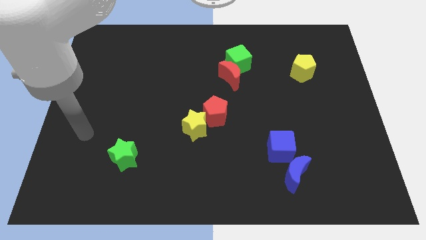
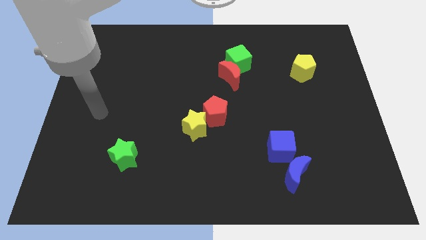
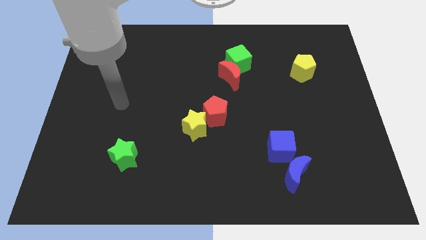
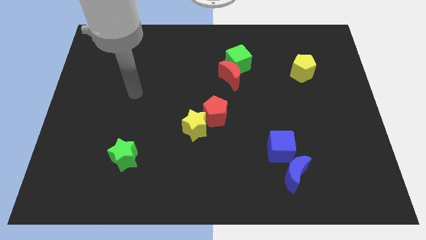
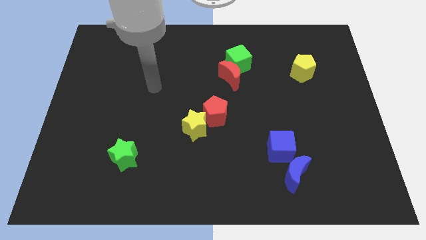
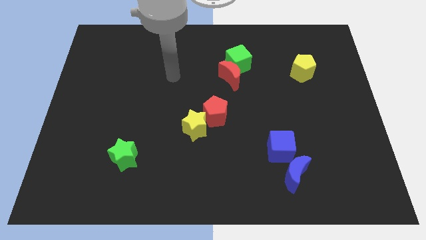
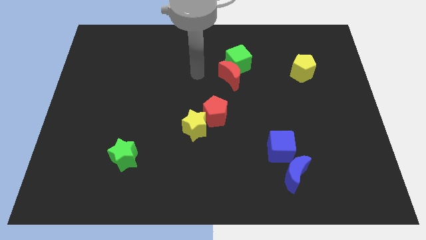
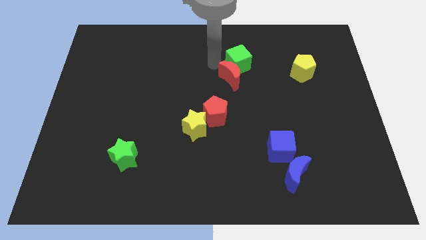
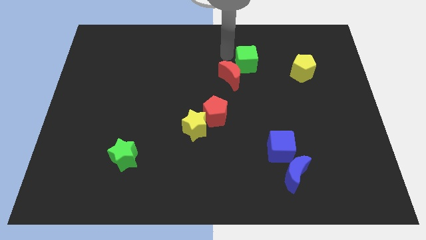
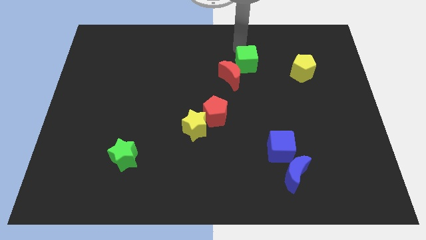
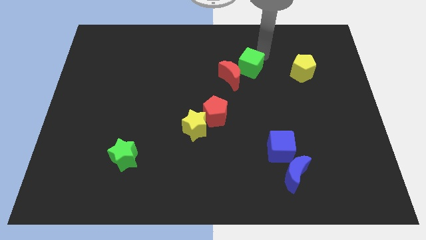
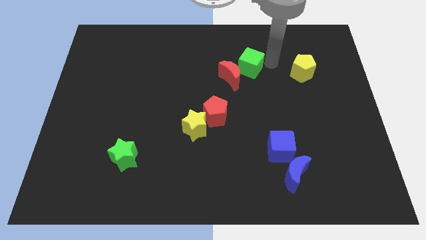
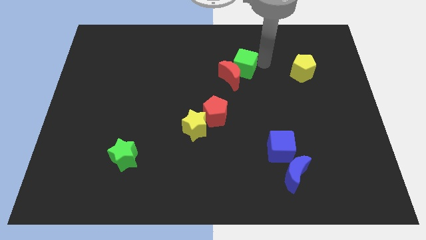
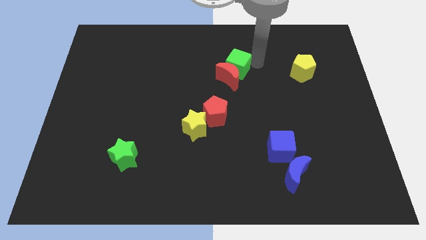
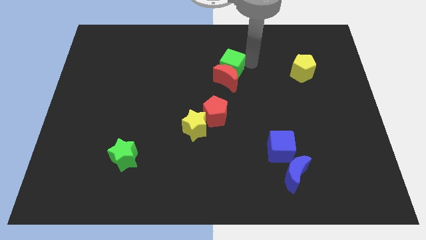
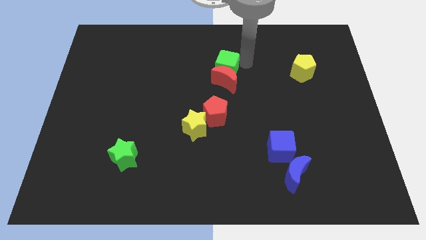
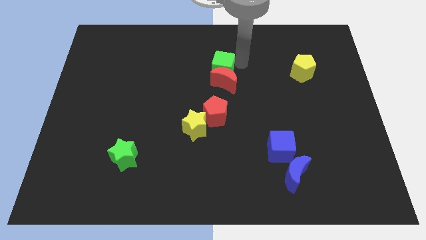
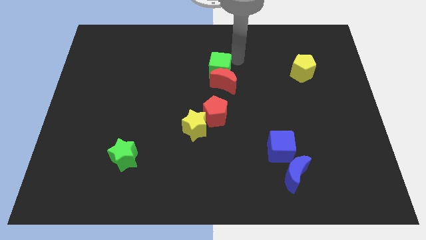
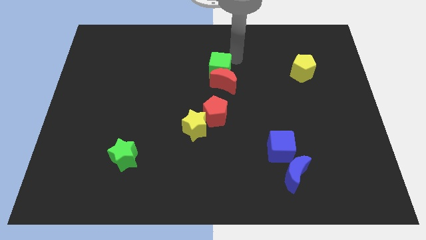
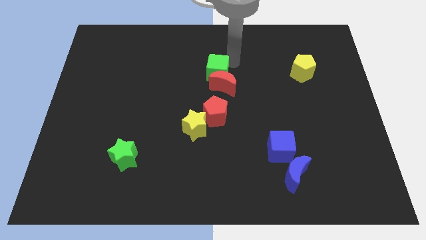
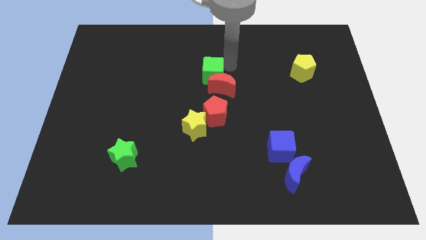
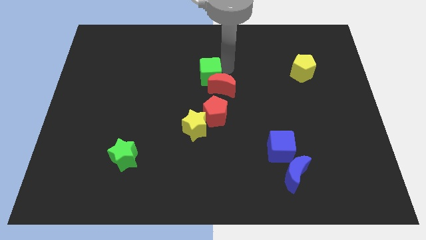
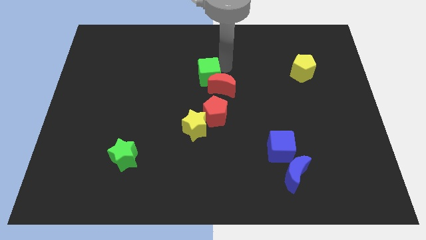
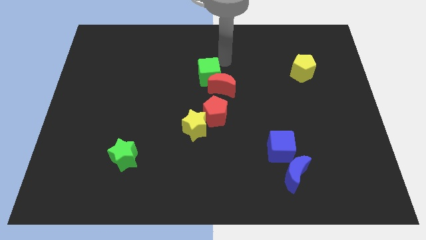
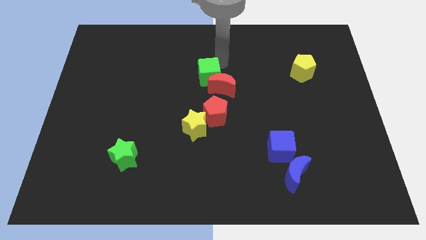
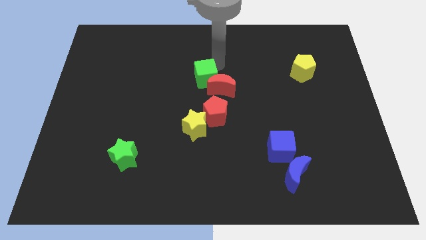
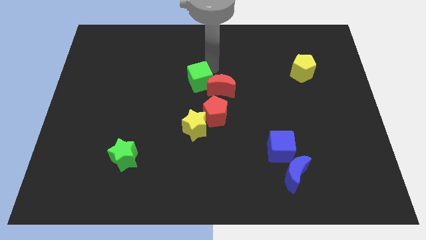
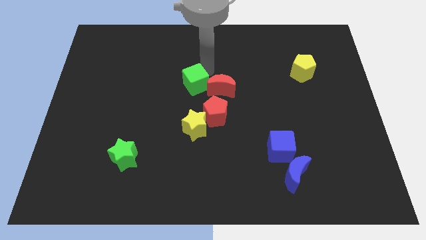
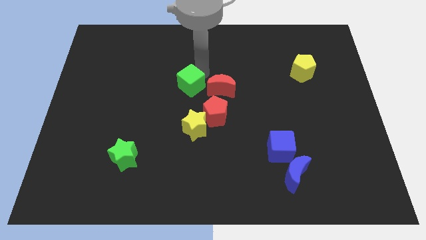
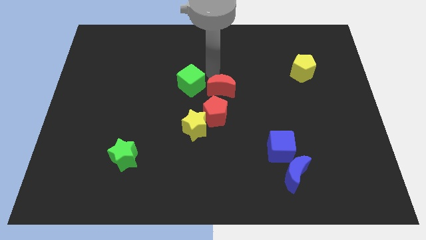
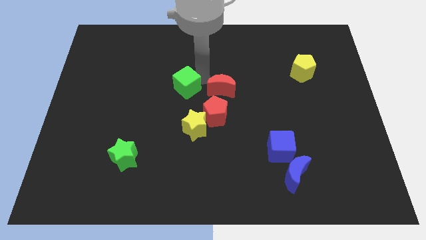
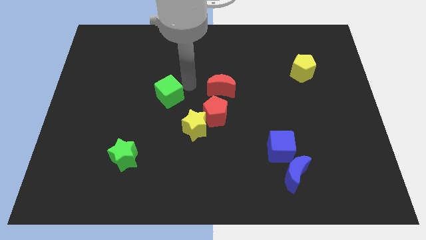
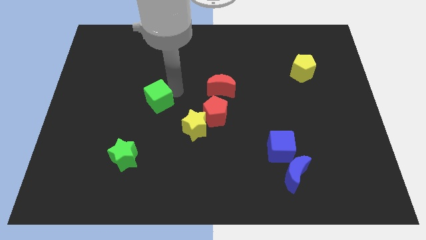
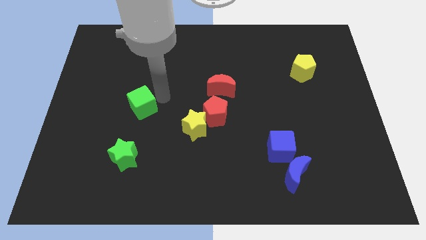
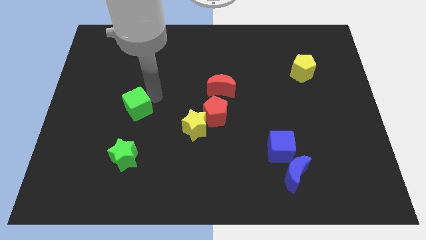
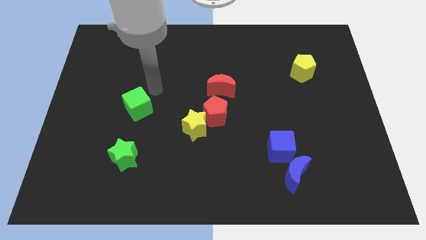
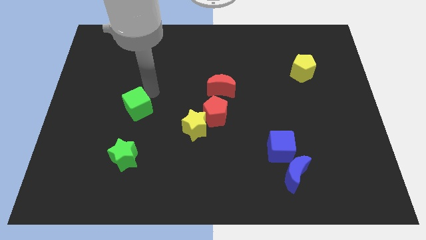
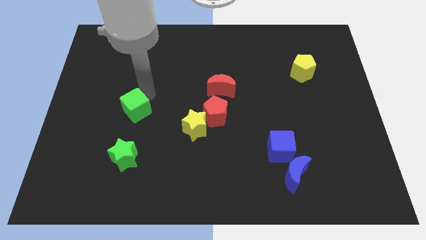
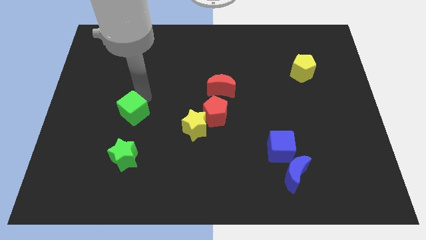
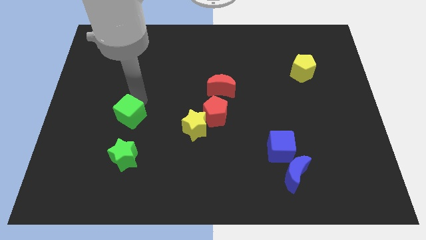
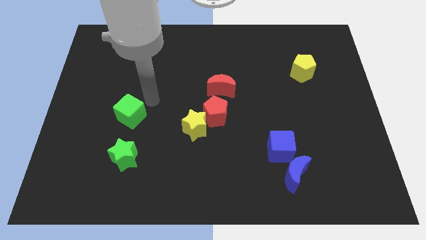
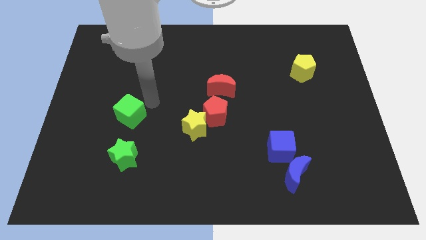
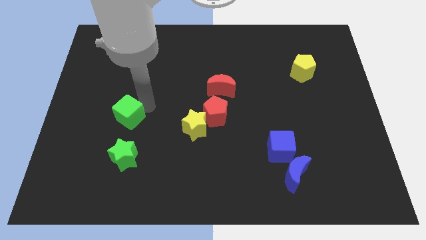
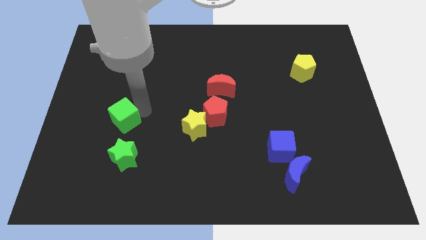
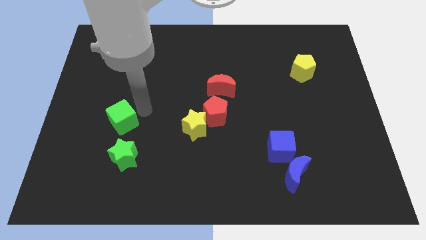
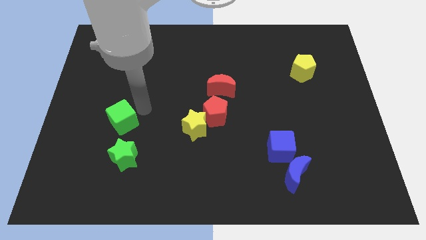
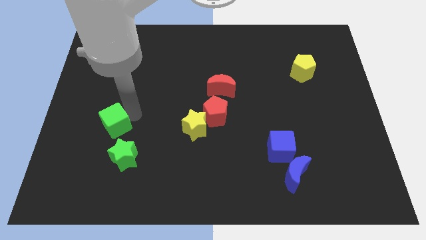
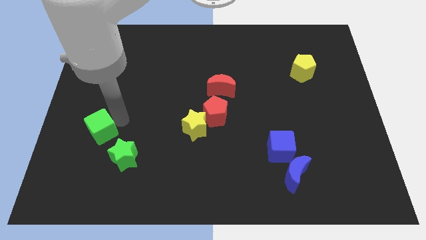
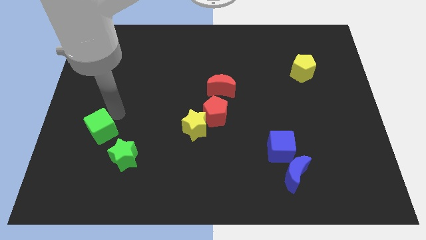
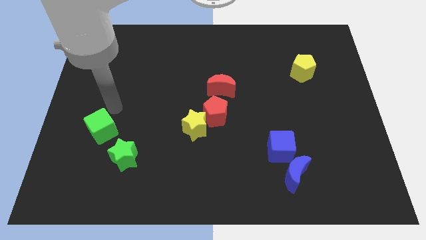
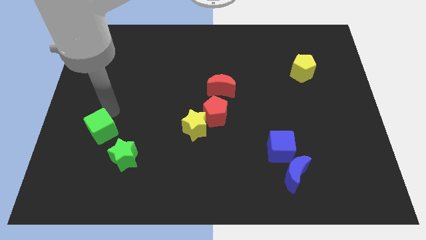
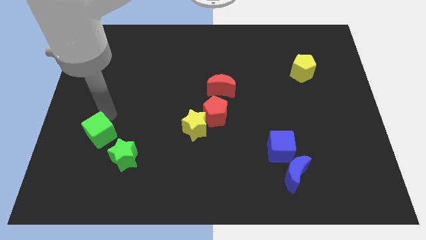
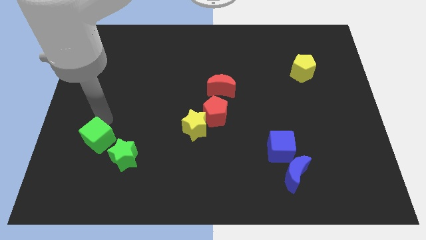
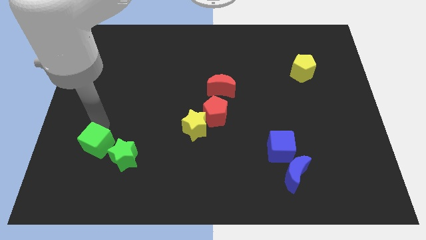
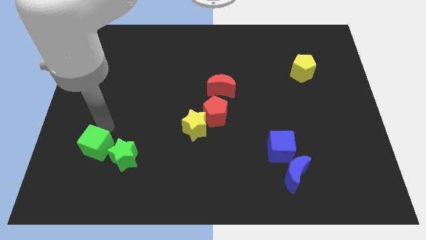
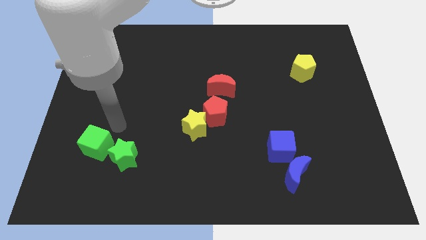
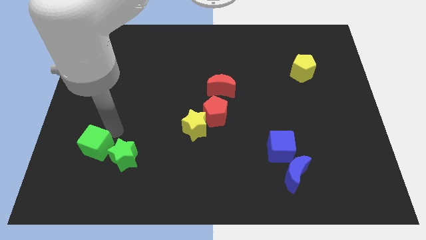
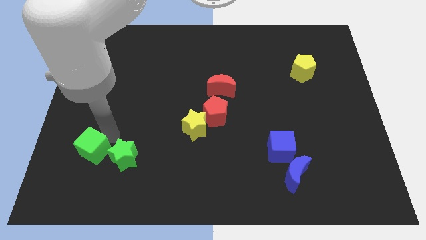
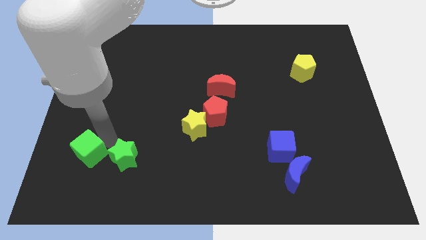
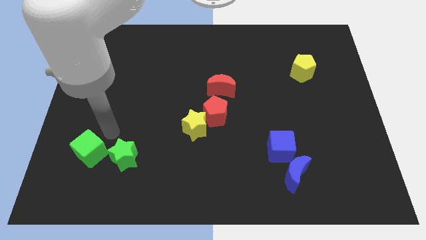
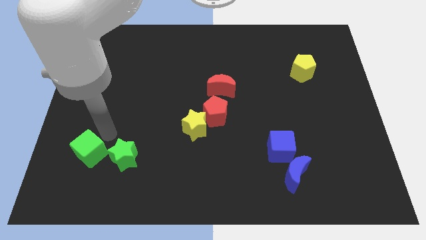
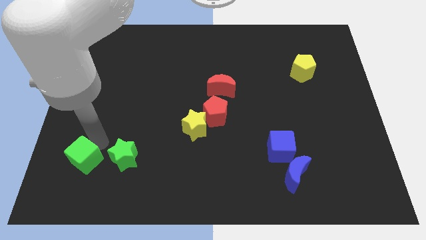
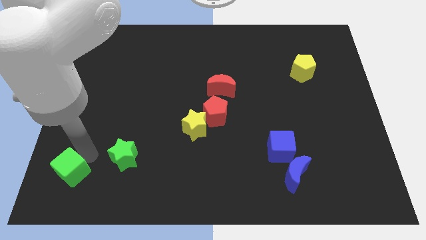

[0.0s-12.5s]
push the green cube to the bottom left

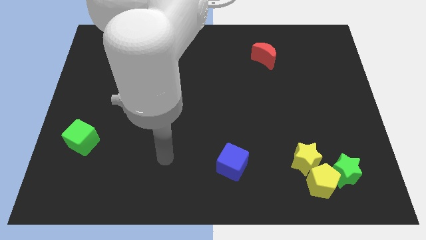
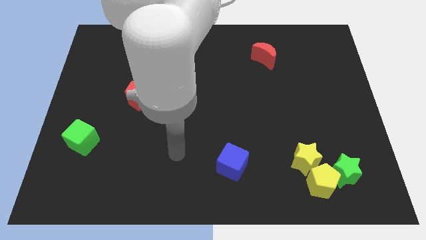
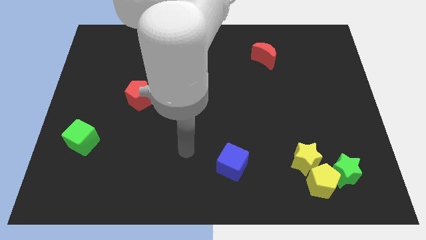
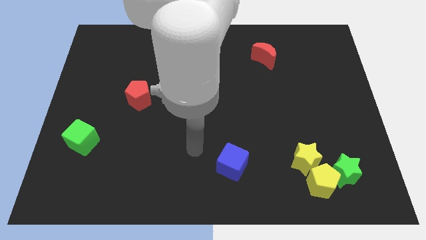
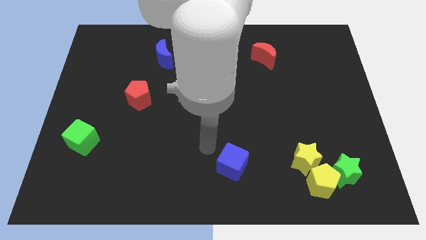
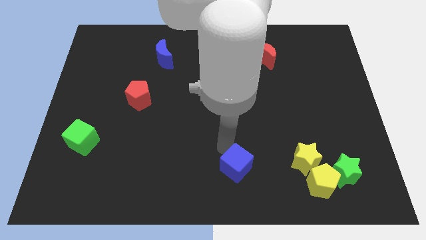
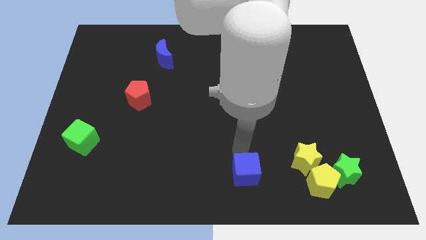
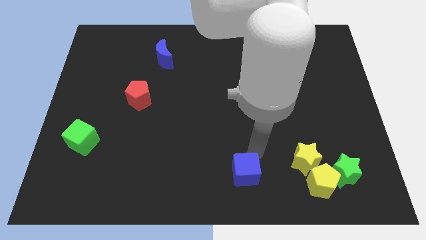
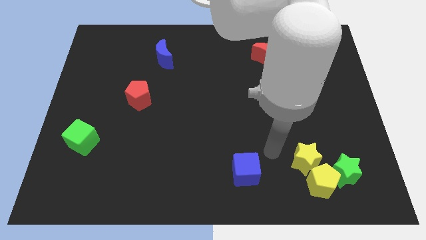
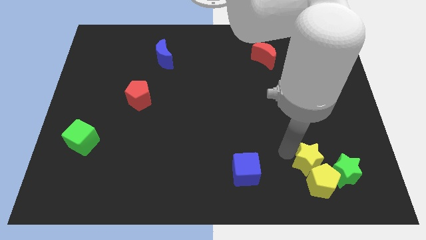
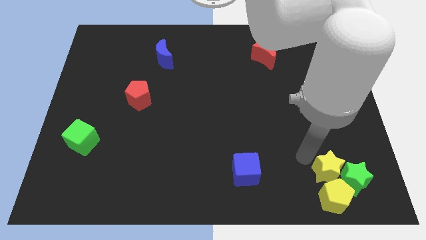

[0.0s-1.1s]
push the green star to the bottom right

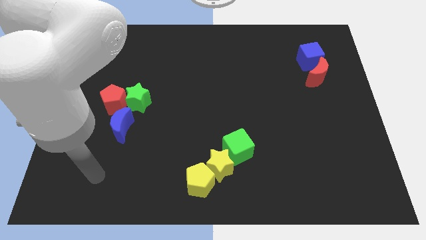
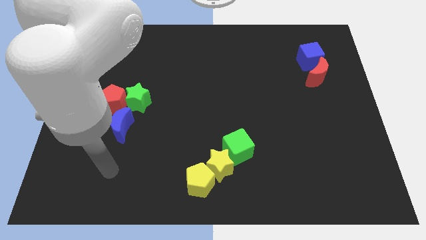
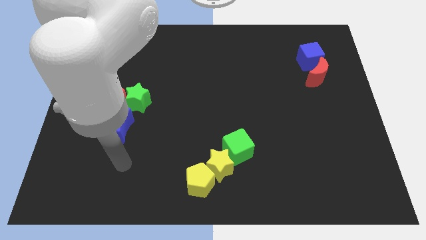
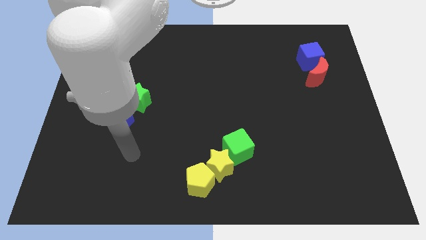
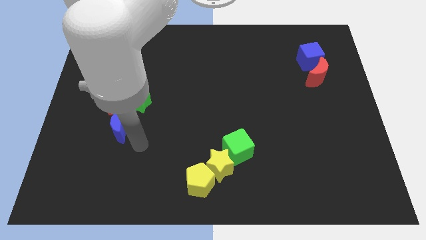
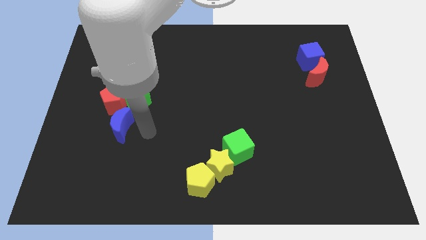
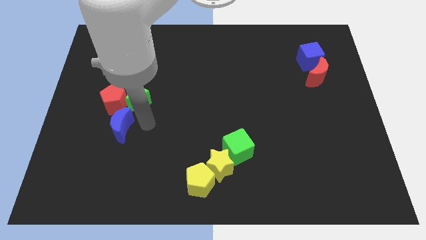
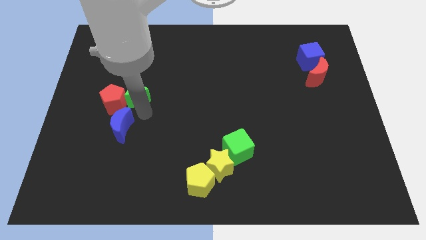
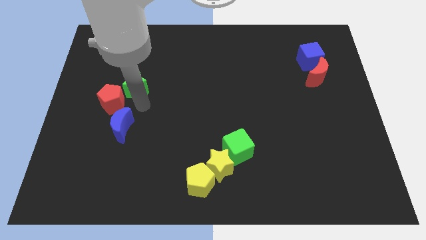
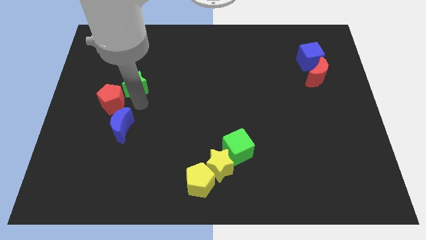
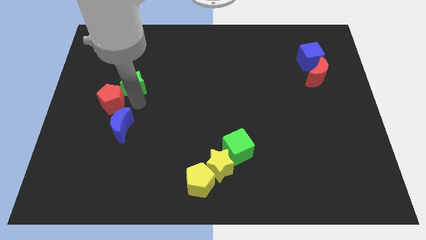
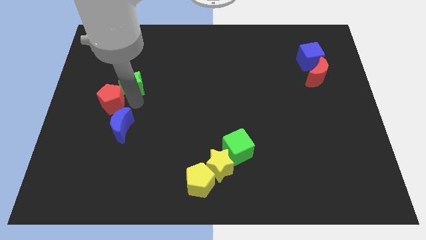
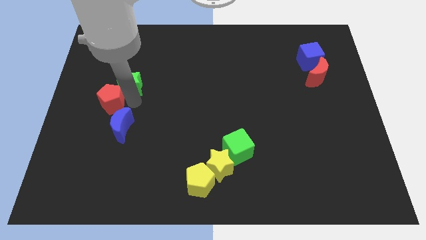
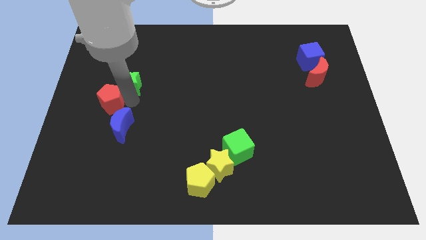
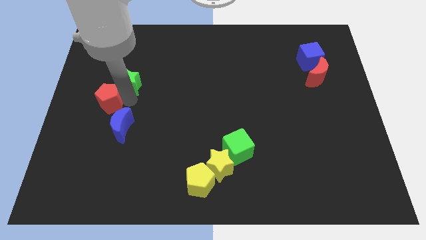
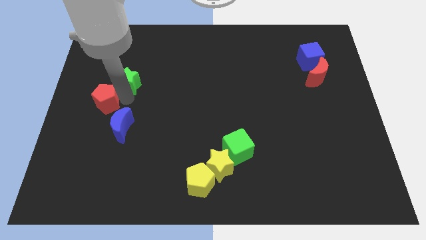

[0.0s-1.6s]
slide the red pentagon to the left side of the board
